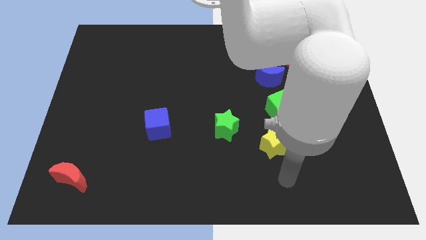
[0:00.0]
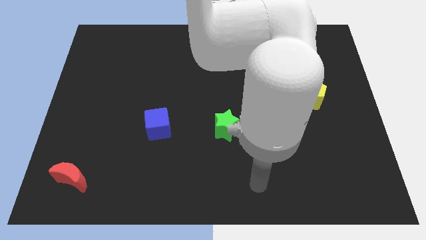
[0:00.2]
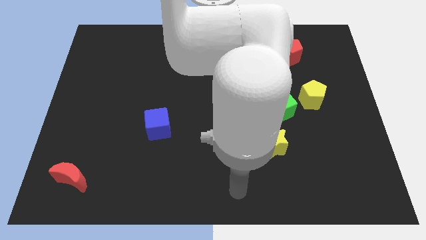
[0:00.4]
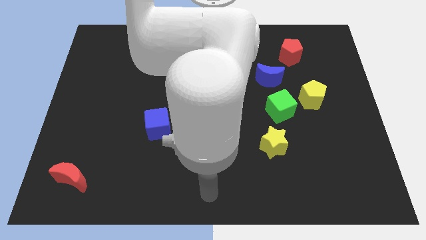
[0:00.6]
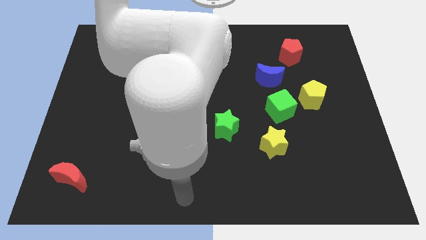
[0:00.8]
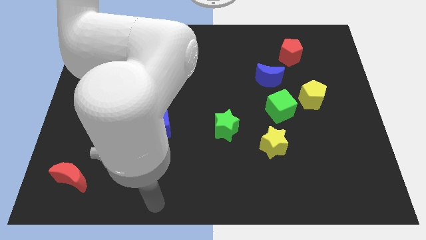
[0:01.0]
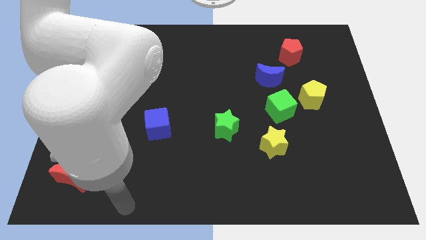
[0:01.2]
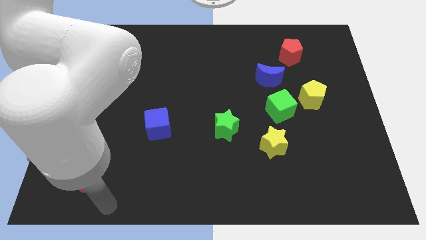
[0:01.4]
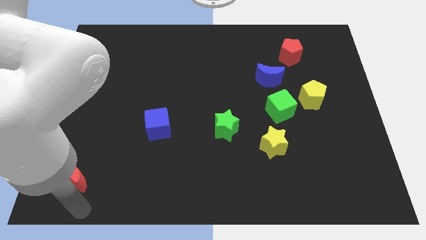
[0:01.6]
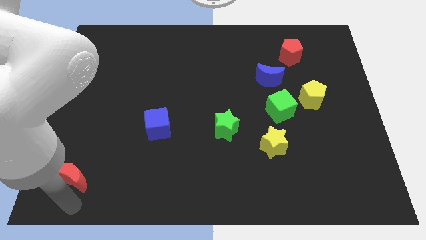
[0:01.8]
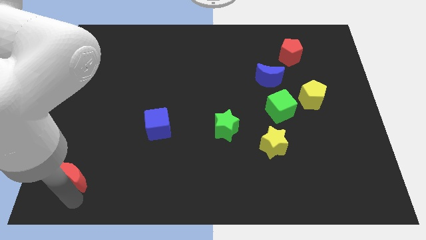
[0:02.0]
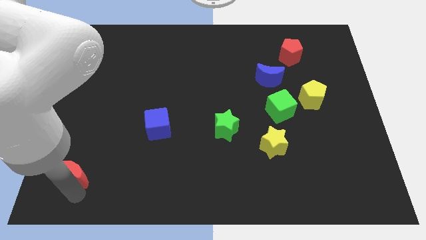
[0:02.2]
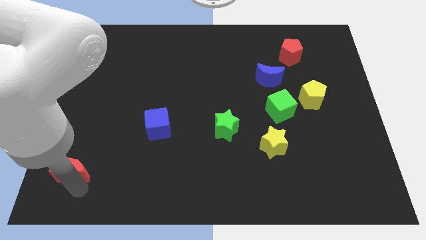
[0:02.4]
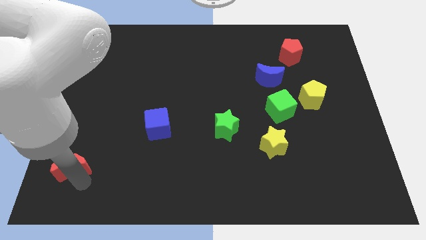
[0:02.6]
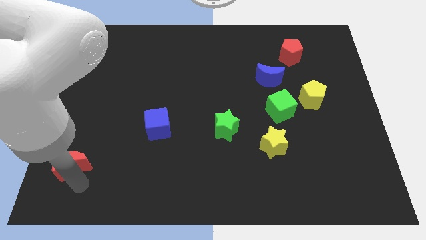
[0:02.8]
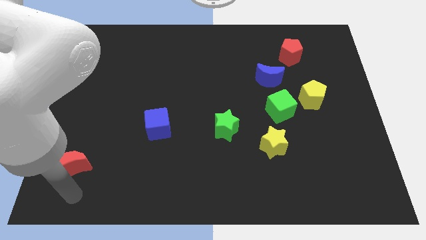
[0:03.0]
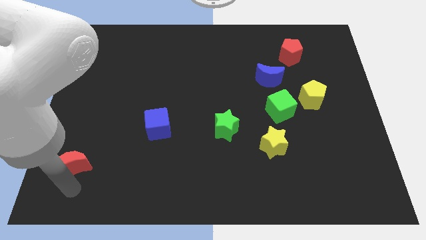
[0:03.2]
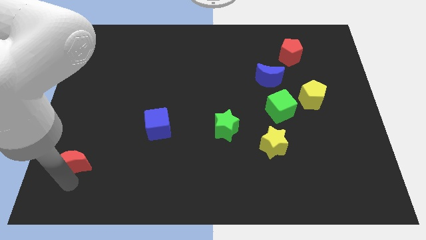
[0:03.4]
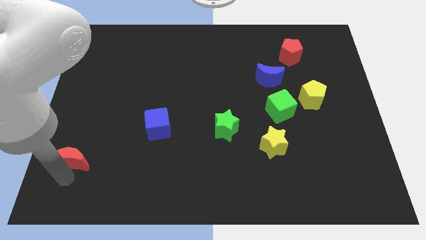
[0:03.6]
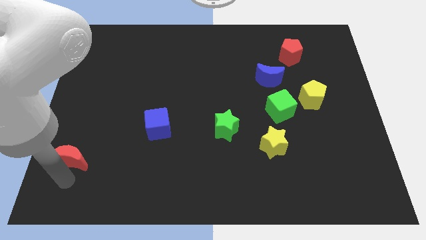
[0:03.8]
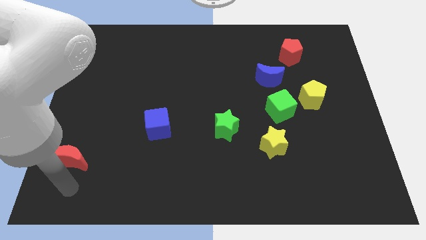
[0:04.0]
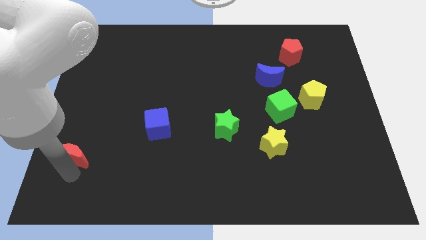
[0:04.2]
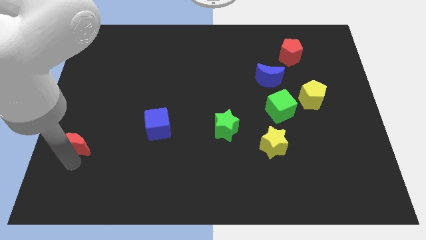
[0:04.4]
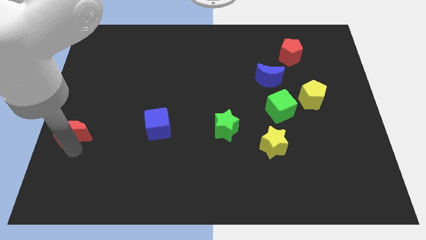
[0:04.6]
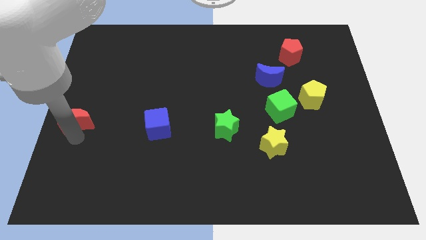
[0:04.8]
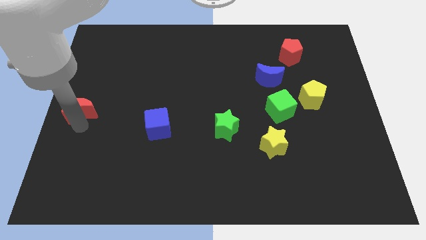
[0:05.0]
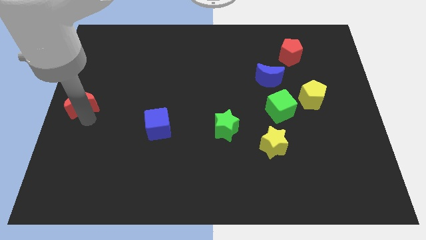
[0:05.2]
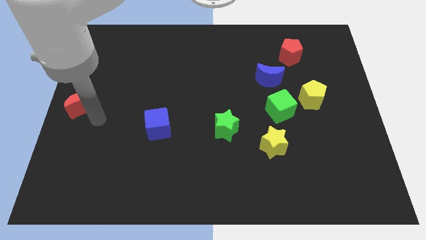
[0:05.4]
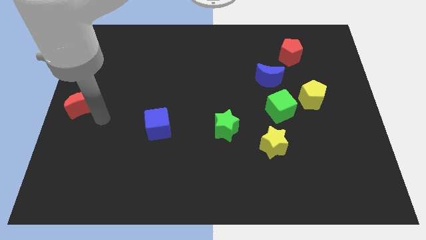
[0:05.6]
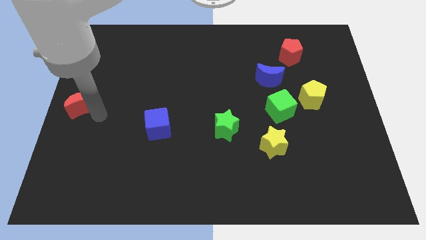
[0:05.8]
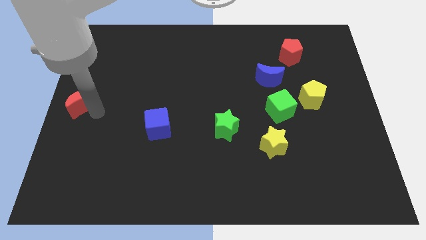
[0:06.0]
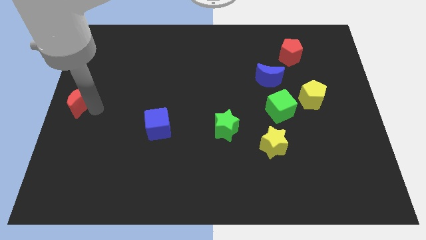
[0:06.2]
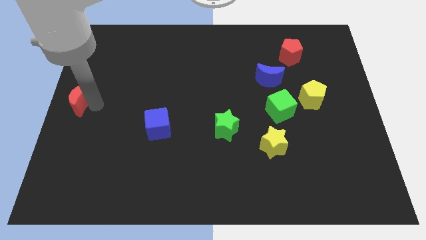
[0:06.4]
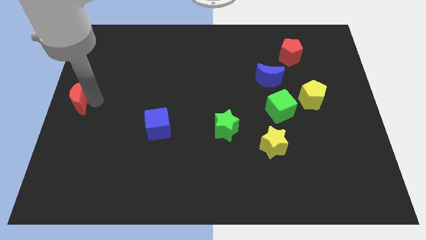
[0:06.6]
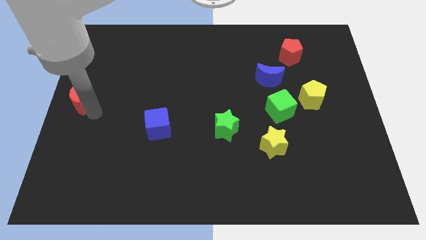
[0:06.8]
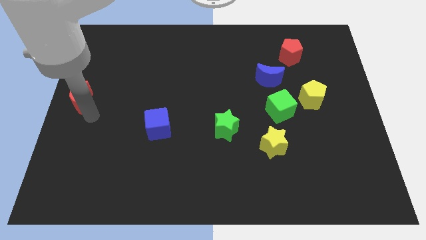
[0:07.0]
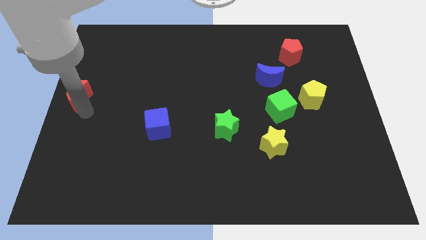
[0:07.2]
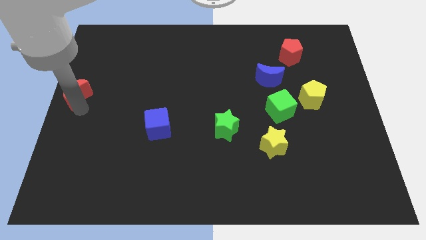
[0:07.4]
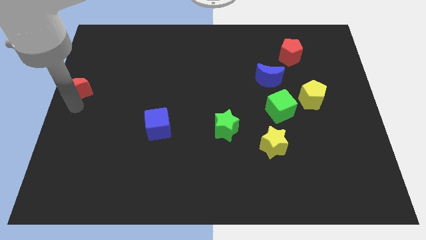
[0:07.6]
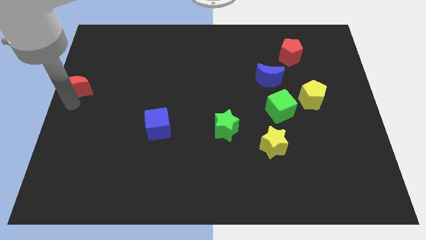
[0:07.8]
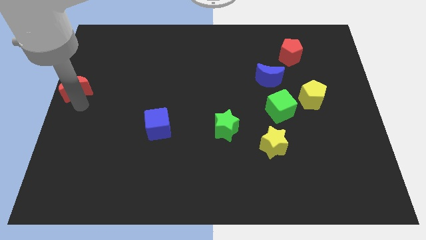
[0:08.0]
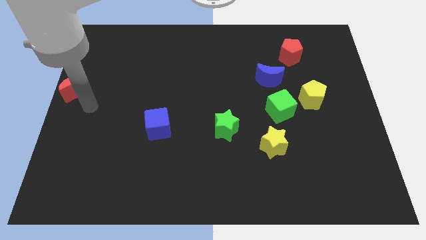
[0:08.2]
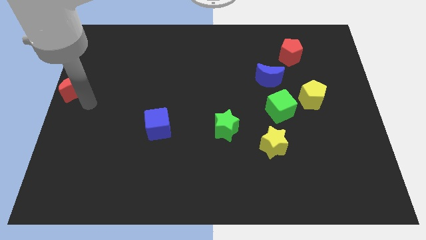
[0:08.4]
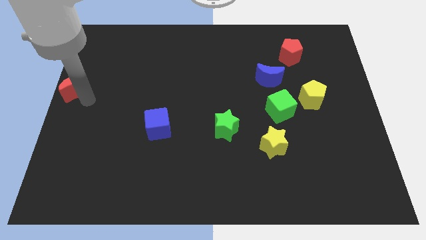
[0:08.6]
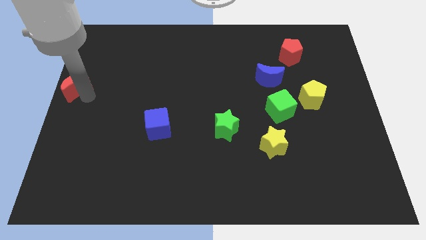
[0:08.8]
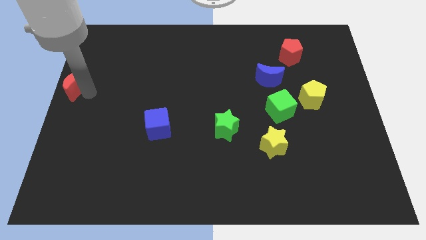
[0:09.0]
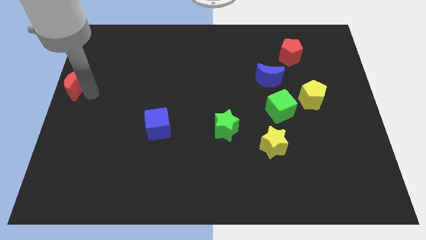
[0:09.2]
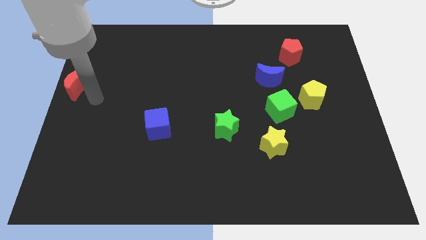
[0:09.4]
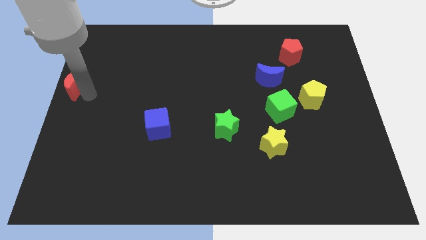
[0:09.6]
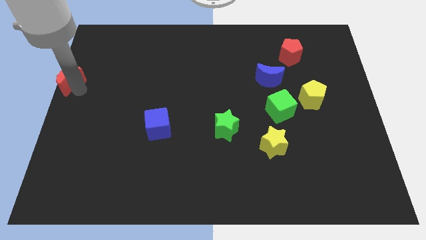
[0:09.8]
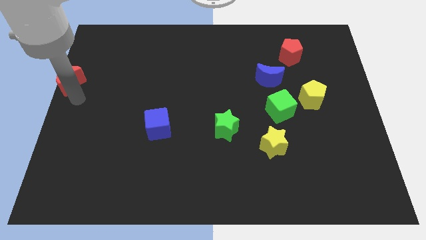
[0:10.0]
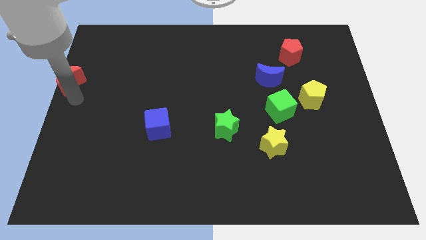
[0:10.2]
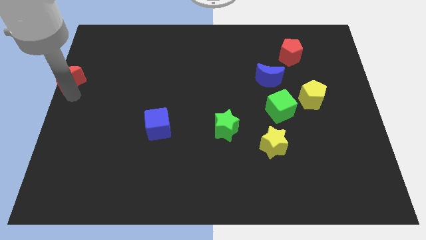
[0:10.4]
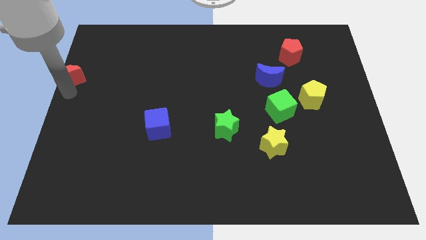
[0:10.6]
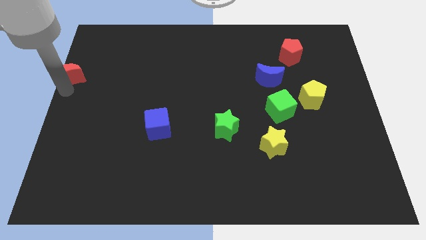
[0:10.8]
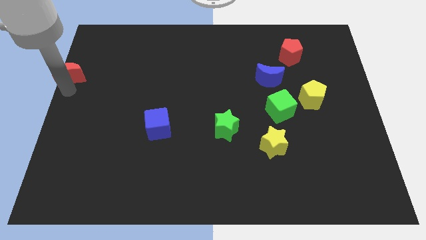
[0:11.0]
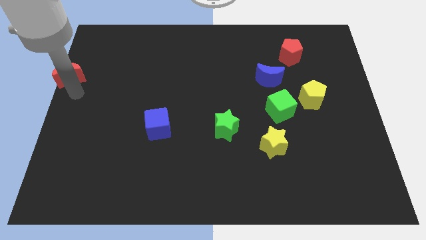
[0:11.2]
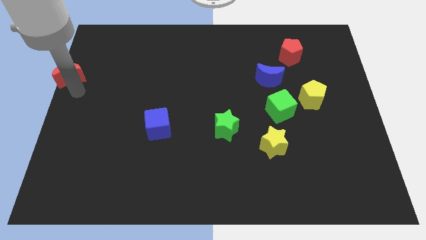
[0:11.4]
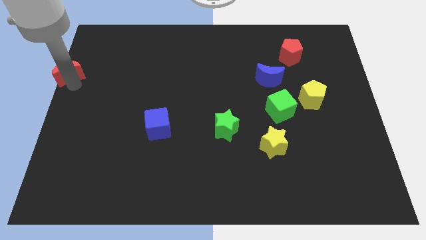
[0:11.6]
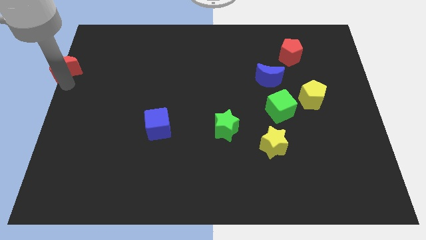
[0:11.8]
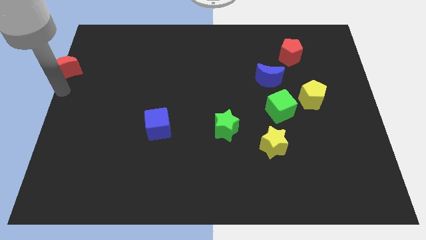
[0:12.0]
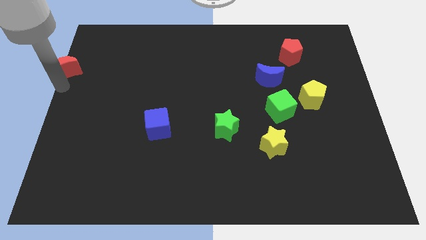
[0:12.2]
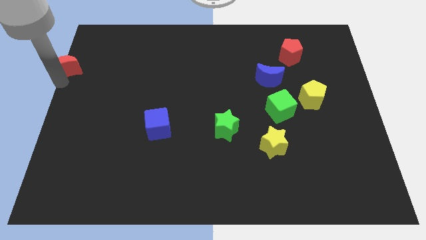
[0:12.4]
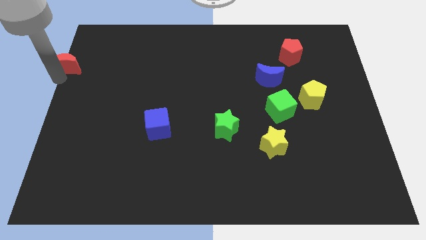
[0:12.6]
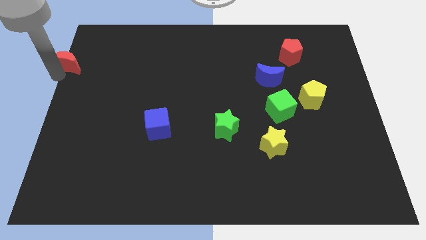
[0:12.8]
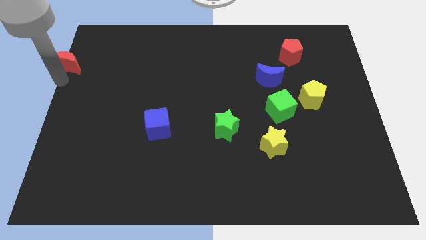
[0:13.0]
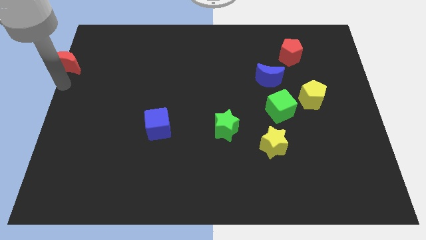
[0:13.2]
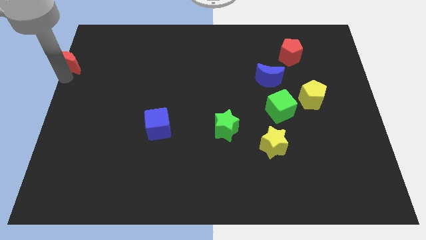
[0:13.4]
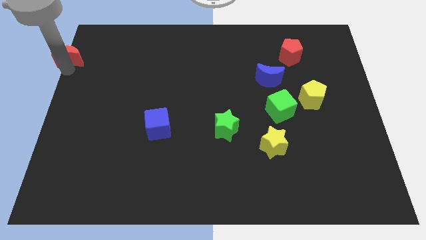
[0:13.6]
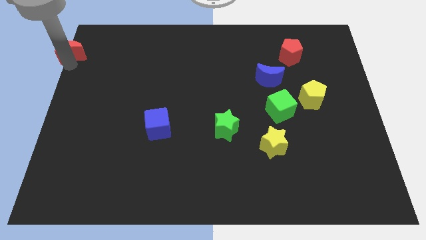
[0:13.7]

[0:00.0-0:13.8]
put the red moon to the top left
